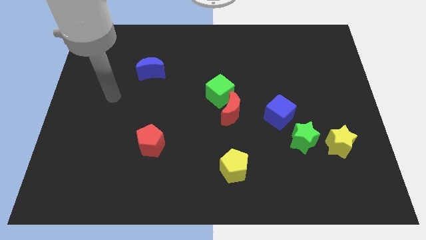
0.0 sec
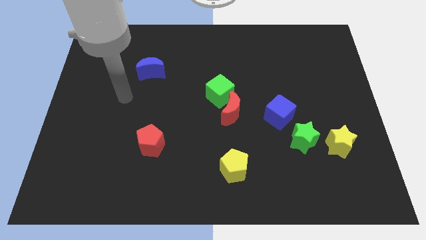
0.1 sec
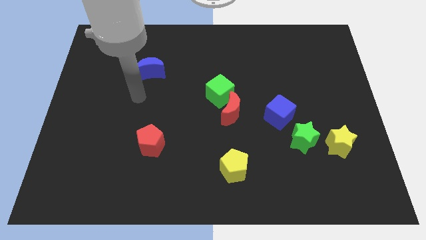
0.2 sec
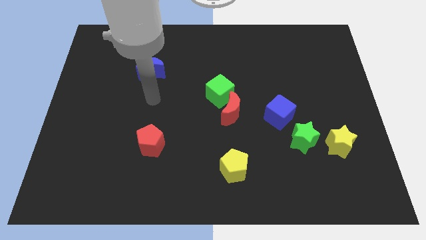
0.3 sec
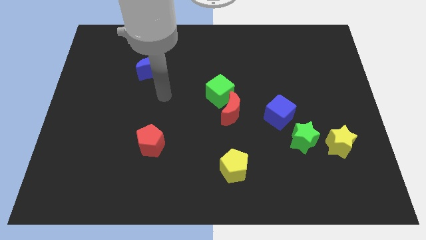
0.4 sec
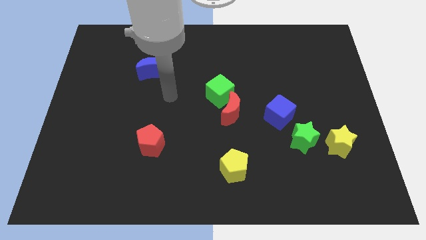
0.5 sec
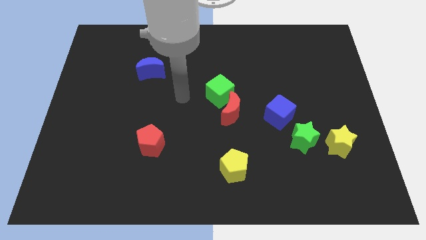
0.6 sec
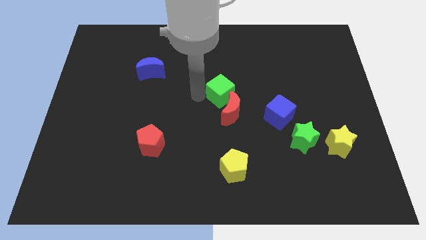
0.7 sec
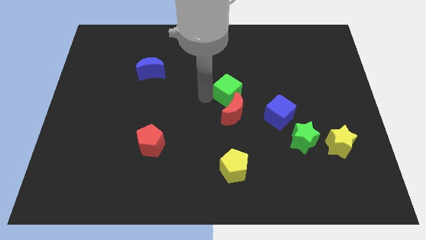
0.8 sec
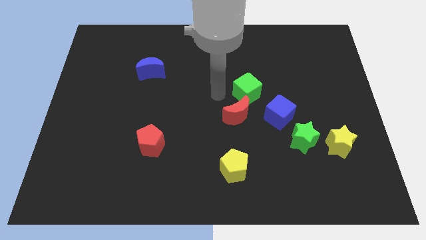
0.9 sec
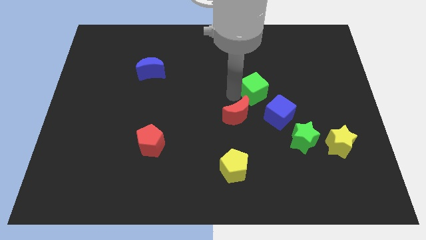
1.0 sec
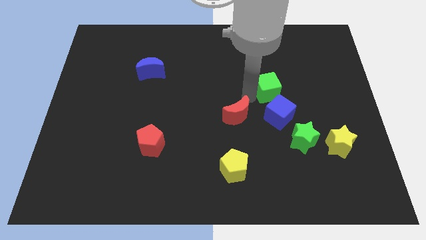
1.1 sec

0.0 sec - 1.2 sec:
move the red moon away from the green cube

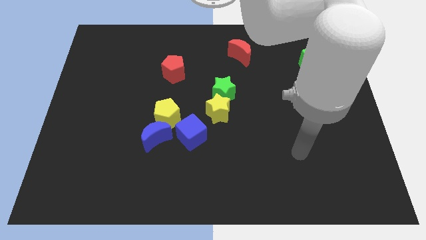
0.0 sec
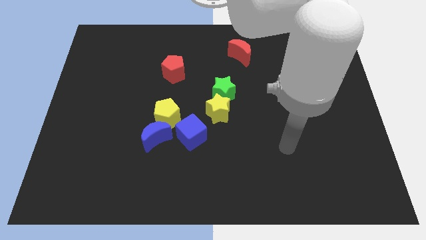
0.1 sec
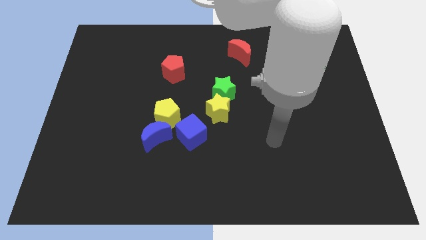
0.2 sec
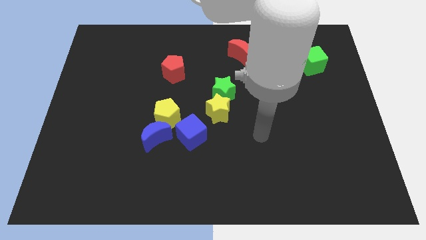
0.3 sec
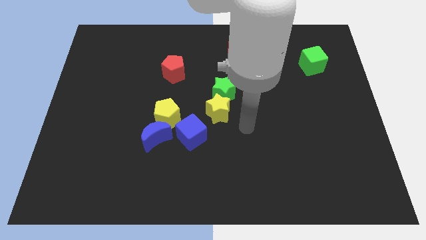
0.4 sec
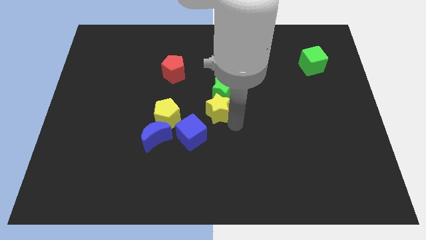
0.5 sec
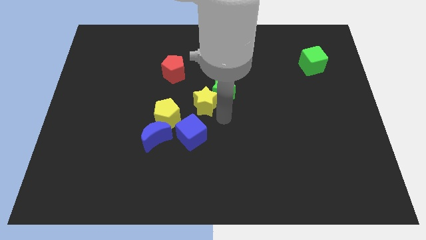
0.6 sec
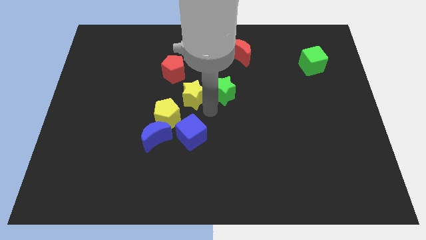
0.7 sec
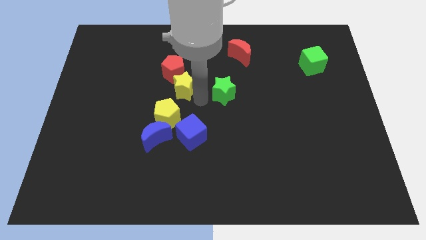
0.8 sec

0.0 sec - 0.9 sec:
move the green star away from the yellow star

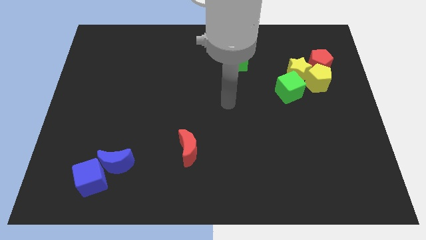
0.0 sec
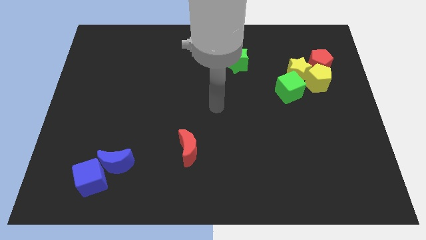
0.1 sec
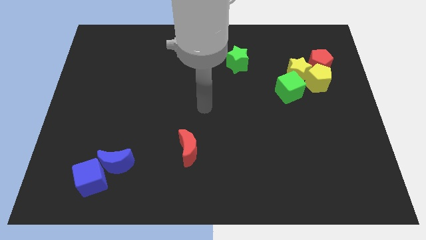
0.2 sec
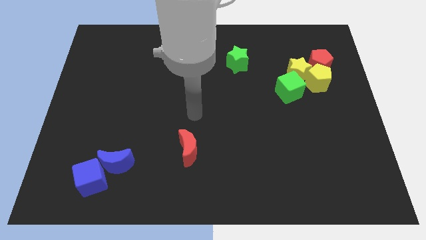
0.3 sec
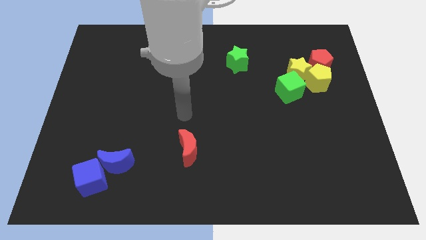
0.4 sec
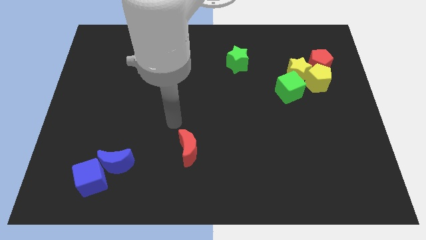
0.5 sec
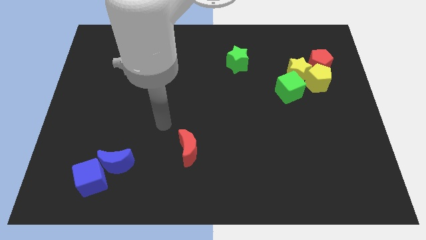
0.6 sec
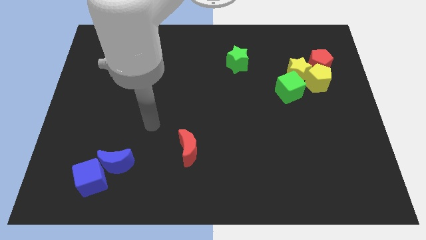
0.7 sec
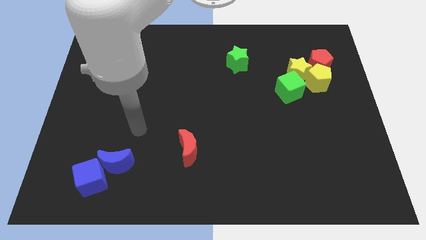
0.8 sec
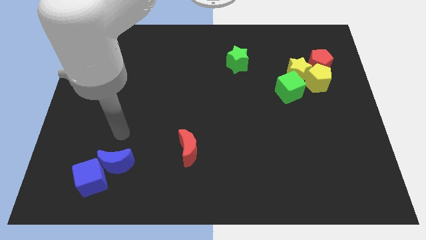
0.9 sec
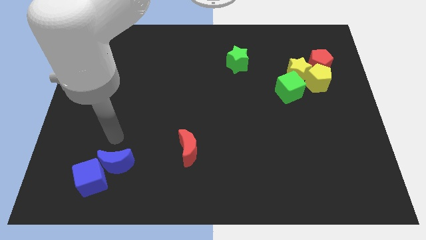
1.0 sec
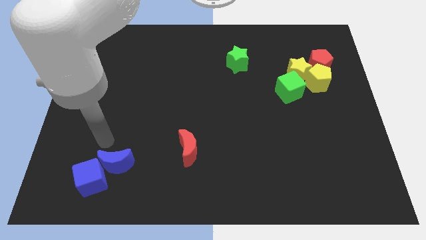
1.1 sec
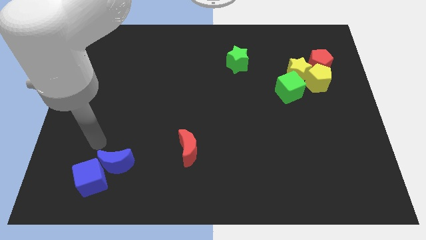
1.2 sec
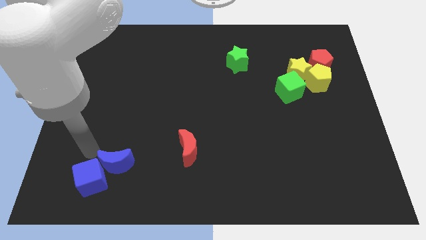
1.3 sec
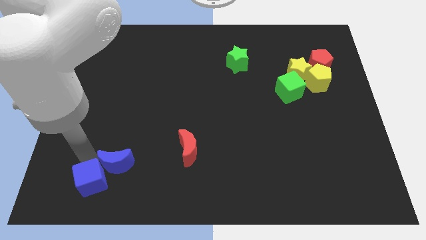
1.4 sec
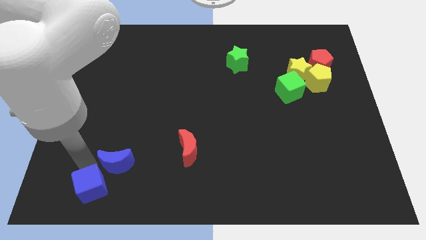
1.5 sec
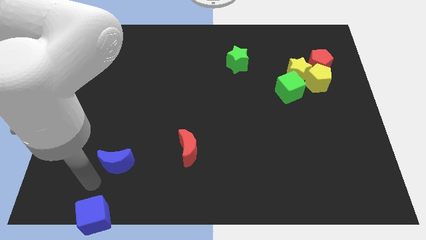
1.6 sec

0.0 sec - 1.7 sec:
separate the blue moon from the blue cube

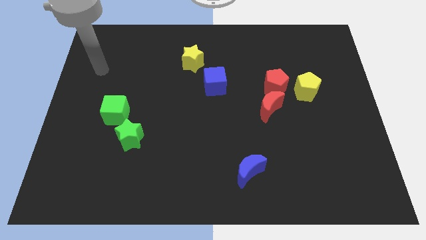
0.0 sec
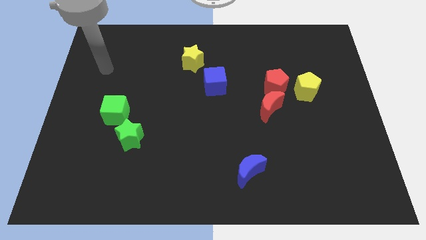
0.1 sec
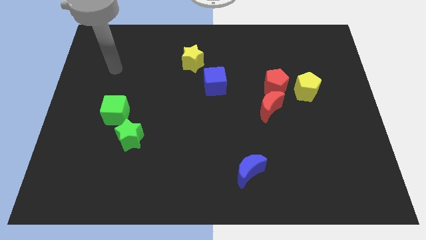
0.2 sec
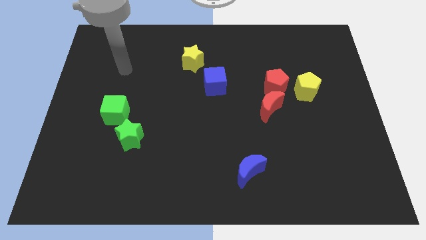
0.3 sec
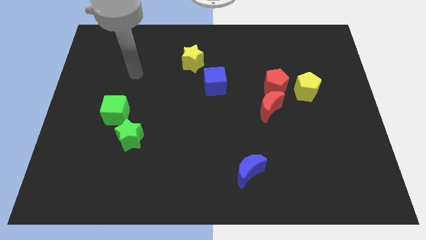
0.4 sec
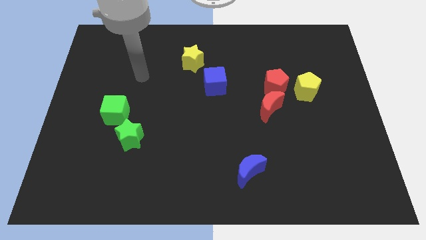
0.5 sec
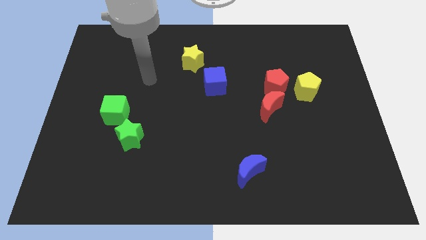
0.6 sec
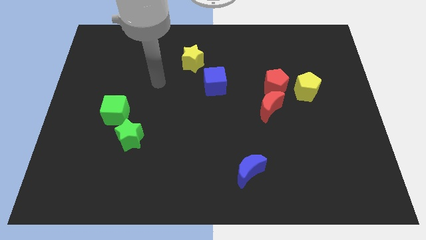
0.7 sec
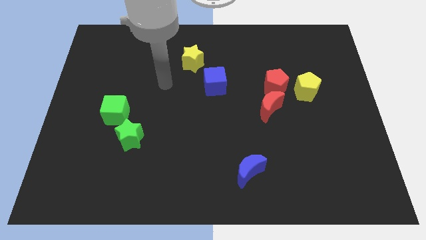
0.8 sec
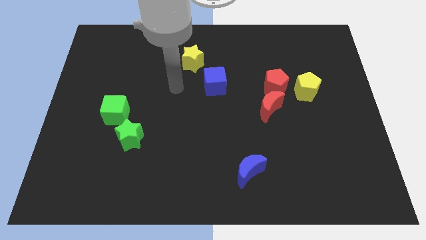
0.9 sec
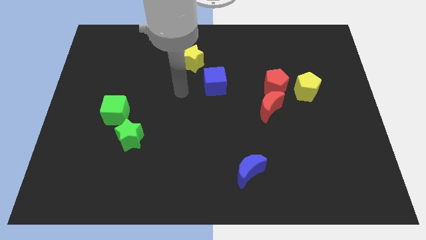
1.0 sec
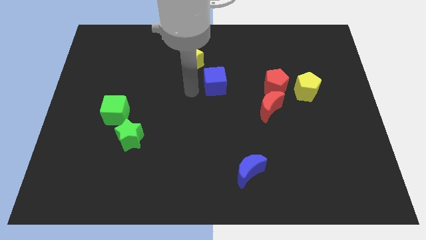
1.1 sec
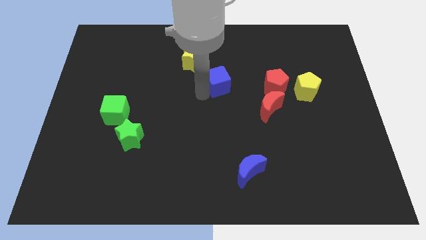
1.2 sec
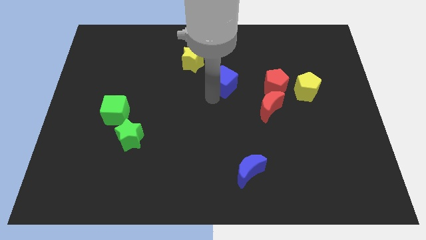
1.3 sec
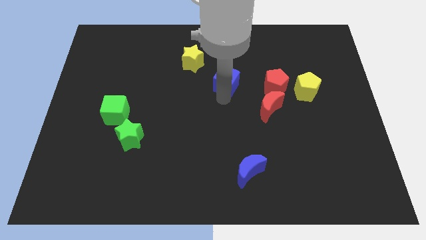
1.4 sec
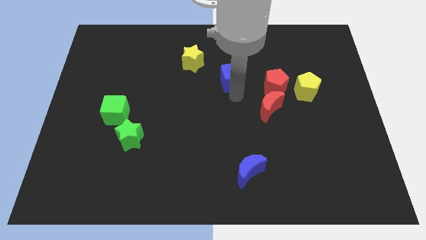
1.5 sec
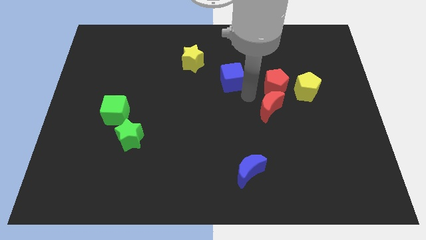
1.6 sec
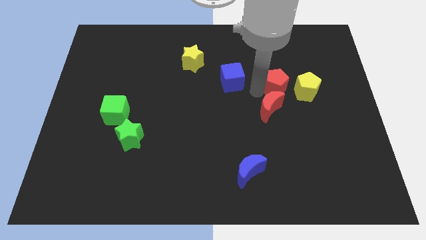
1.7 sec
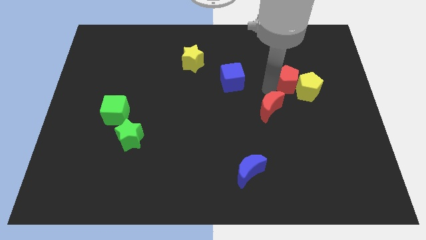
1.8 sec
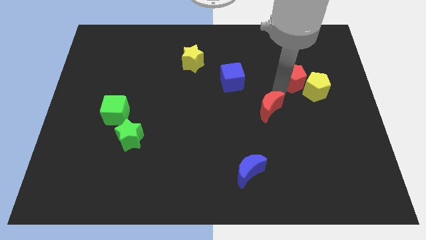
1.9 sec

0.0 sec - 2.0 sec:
separate the red moon from the red pentagon

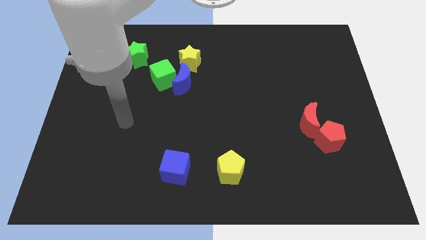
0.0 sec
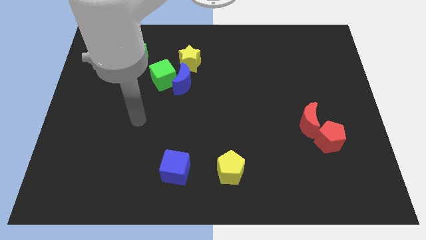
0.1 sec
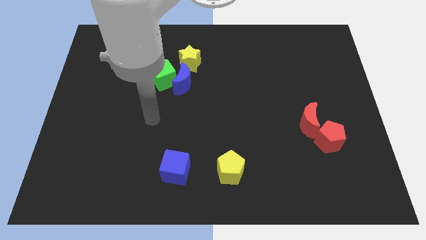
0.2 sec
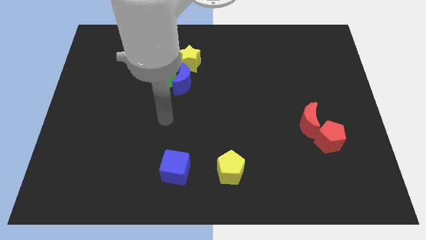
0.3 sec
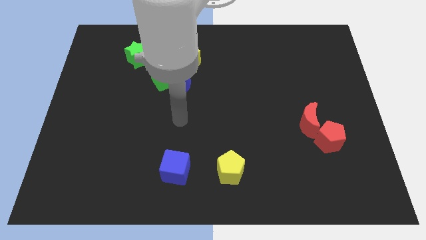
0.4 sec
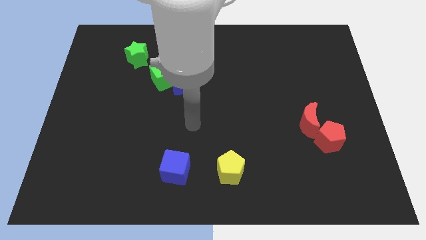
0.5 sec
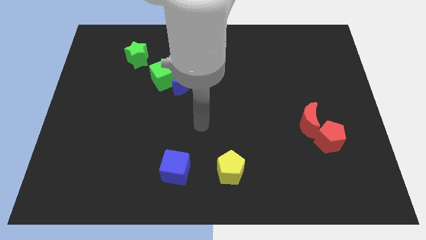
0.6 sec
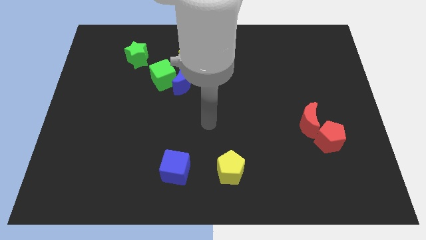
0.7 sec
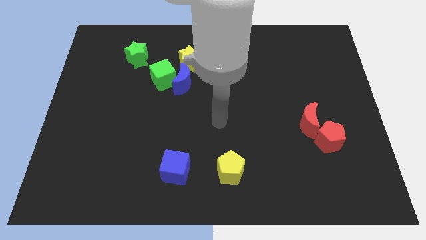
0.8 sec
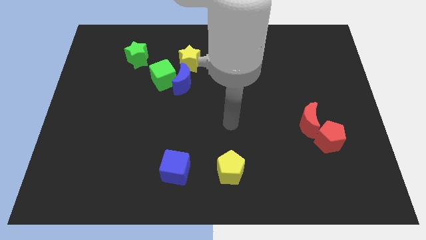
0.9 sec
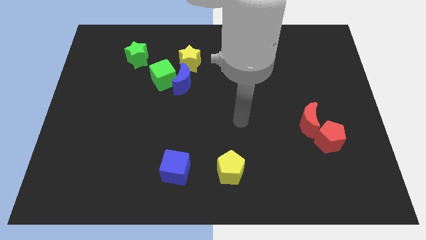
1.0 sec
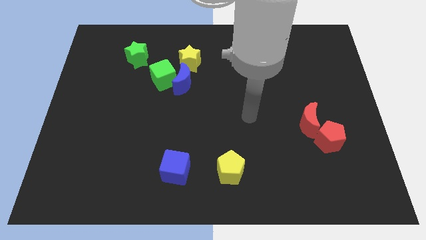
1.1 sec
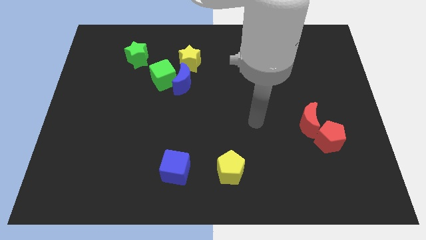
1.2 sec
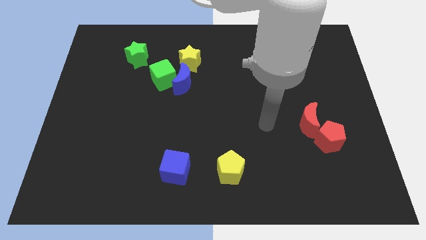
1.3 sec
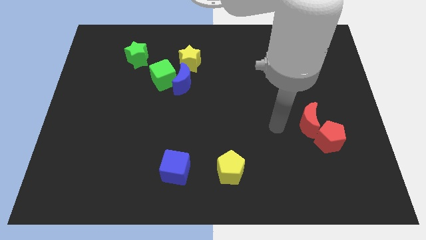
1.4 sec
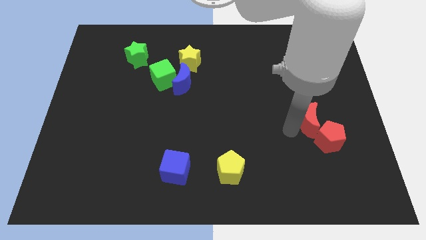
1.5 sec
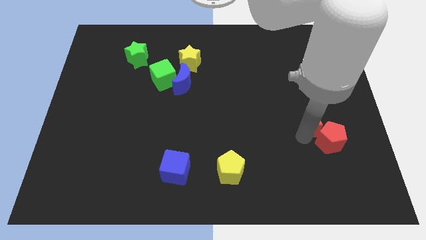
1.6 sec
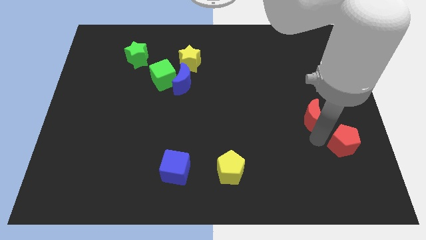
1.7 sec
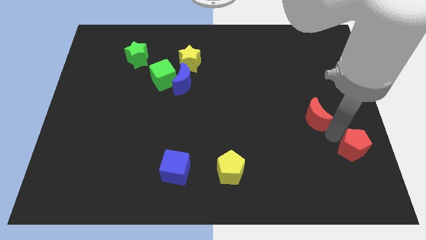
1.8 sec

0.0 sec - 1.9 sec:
pull the red moon apart from the red pentagon

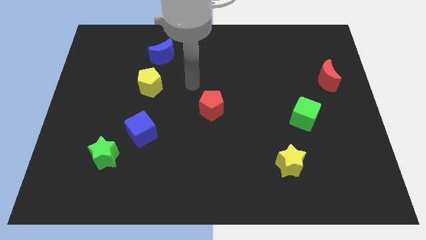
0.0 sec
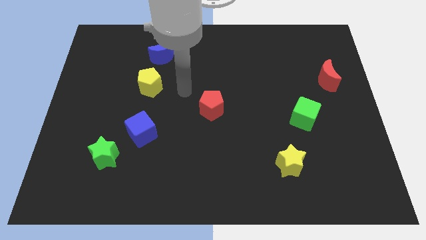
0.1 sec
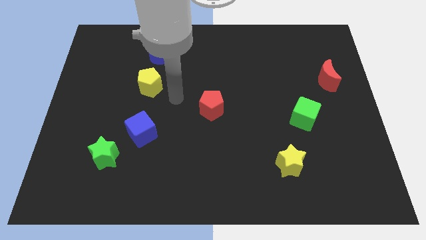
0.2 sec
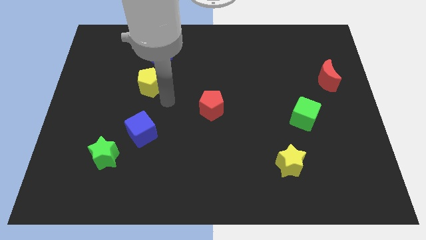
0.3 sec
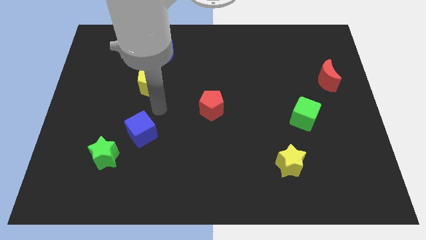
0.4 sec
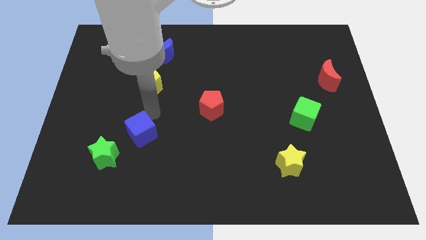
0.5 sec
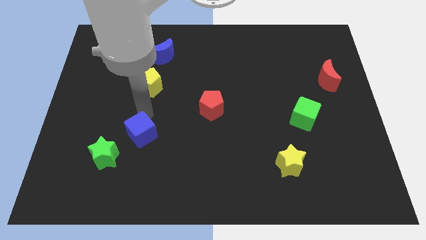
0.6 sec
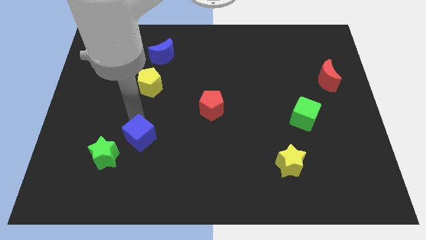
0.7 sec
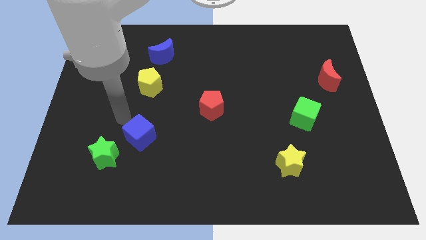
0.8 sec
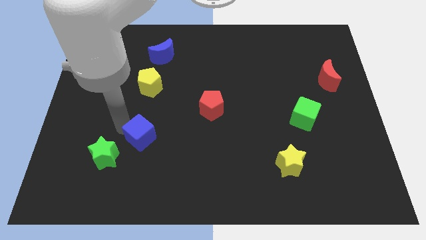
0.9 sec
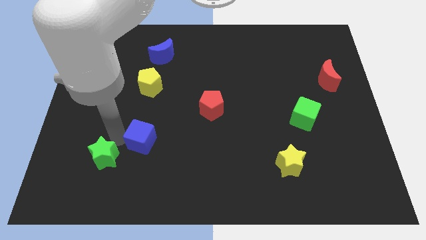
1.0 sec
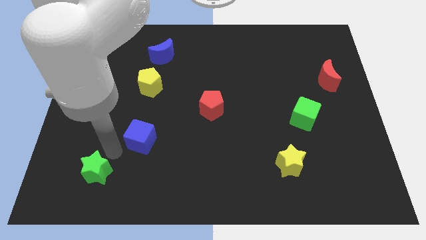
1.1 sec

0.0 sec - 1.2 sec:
separate the blue cube from the green star

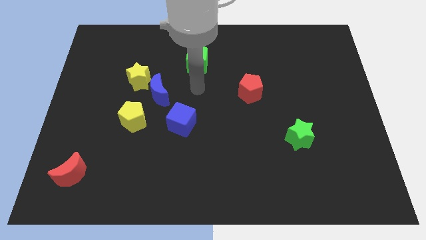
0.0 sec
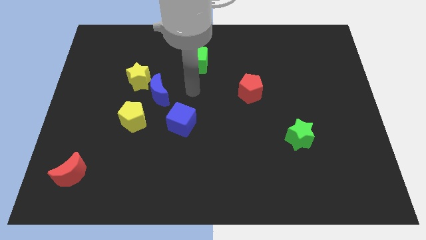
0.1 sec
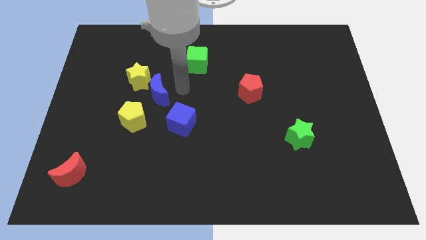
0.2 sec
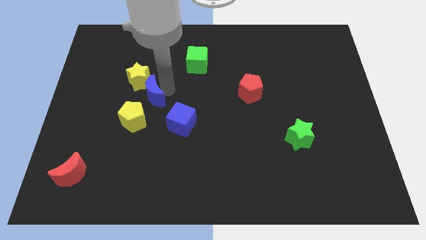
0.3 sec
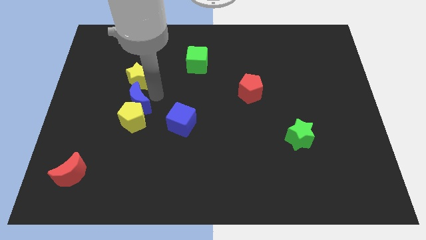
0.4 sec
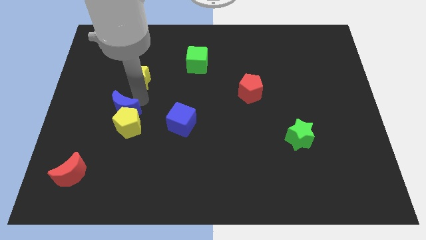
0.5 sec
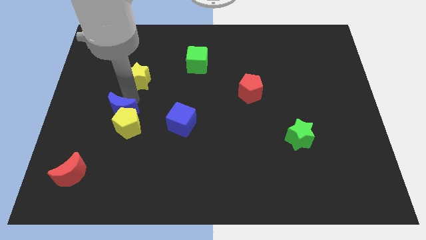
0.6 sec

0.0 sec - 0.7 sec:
separate the yellow star from the blue moon
